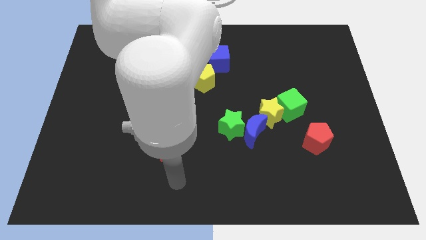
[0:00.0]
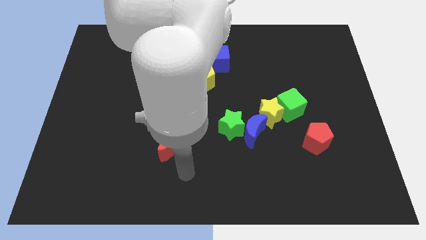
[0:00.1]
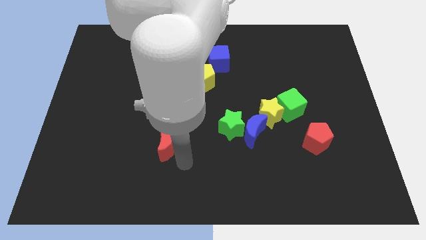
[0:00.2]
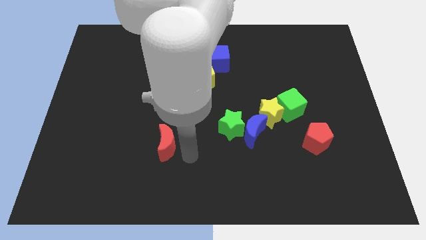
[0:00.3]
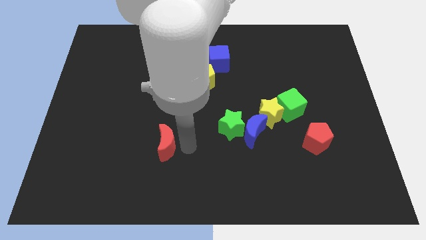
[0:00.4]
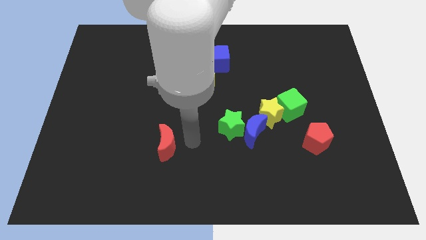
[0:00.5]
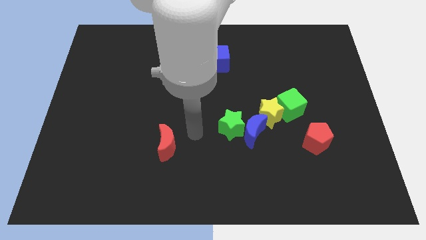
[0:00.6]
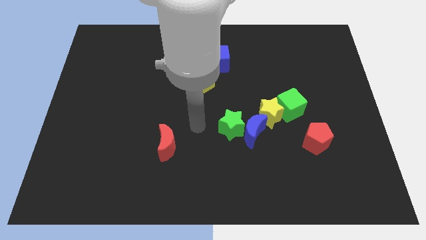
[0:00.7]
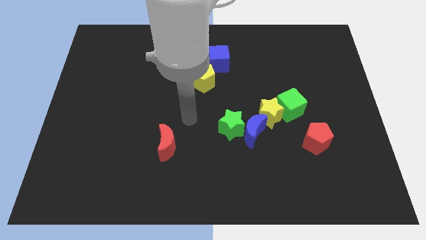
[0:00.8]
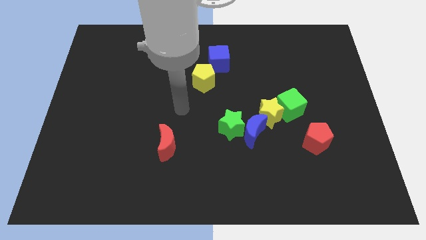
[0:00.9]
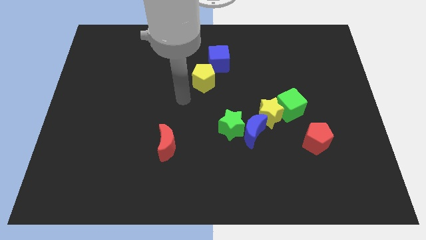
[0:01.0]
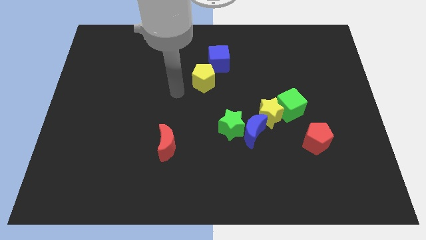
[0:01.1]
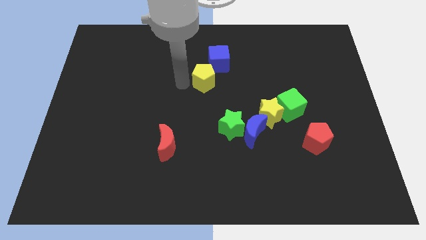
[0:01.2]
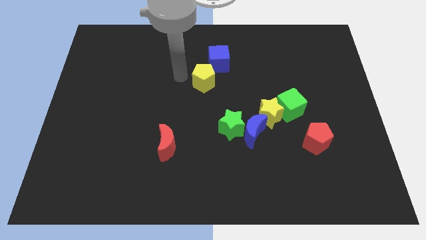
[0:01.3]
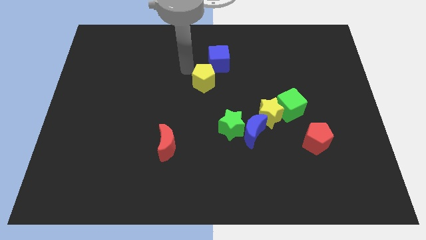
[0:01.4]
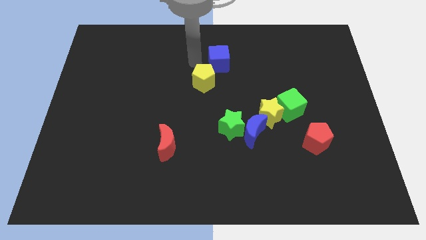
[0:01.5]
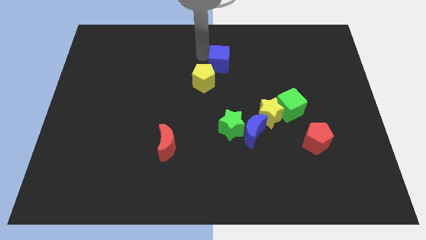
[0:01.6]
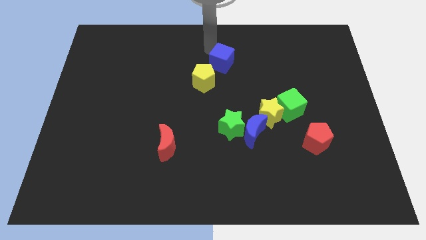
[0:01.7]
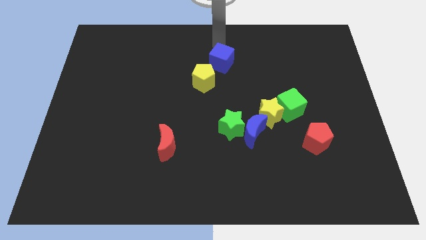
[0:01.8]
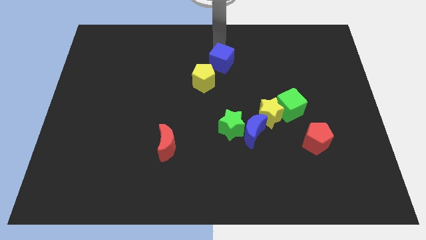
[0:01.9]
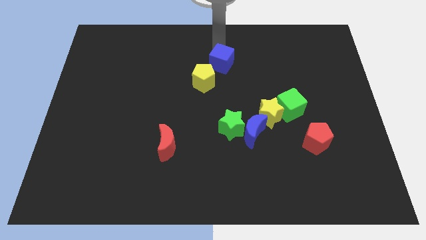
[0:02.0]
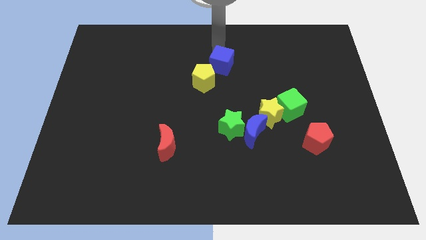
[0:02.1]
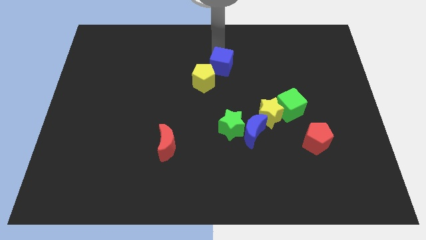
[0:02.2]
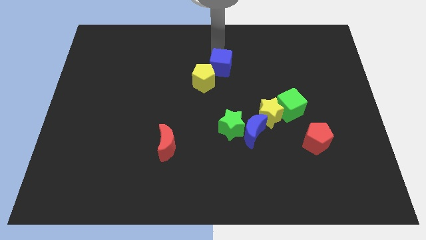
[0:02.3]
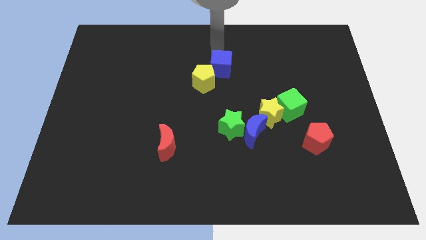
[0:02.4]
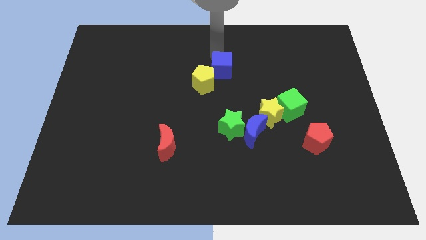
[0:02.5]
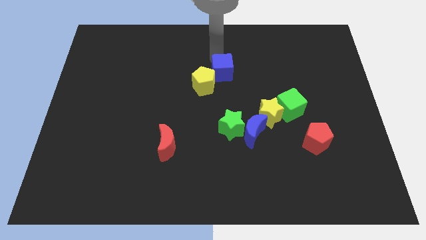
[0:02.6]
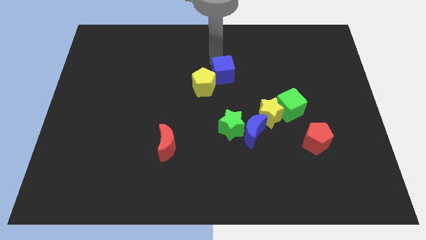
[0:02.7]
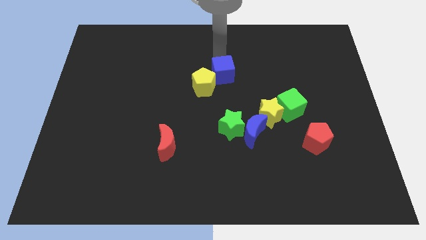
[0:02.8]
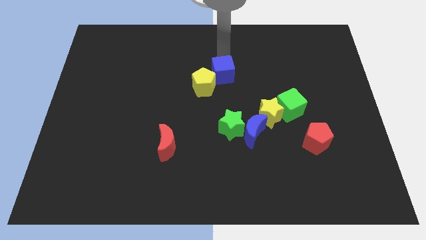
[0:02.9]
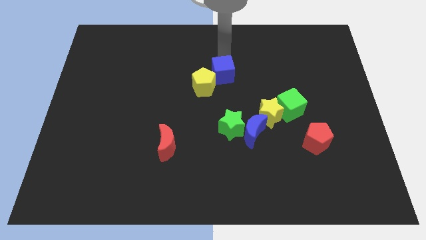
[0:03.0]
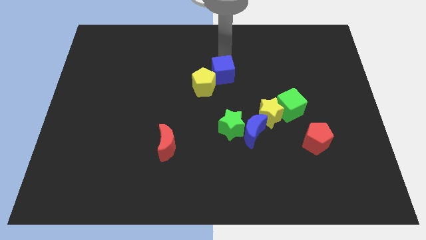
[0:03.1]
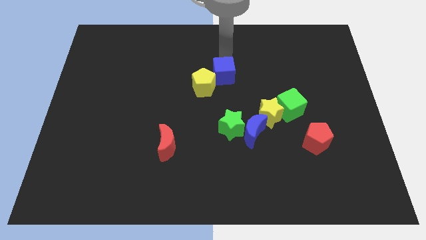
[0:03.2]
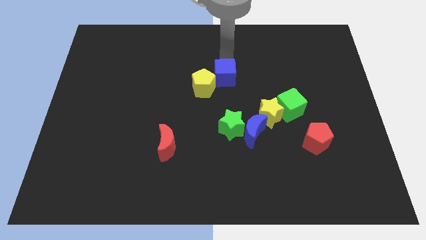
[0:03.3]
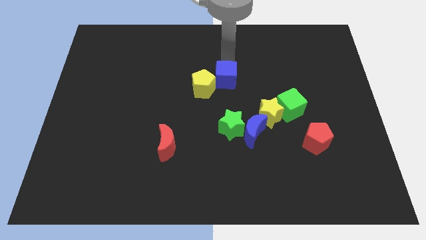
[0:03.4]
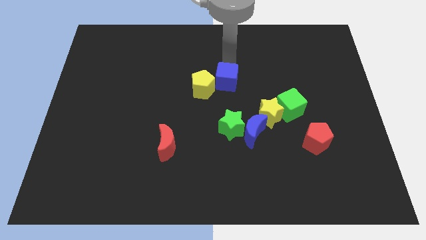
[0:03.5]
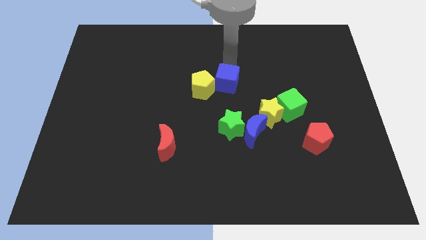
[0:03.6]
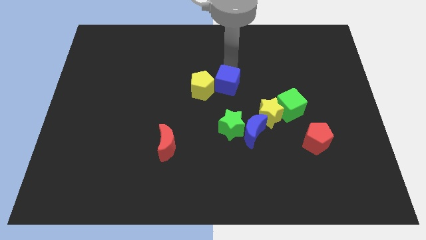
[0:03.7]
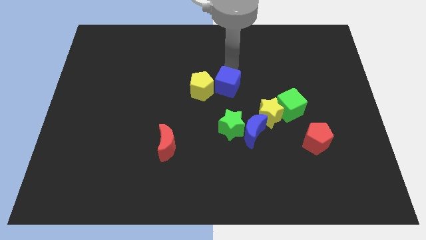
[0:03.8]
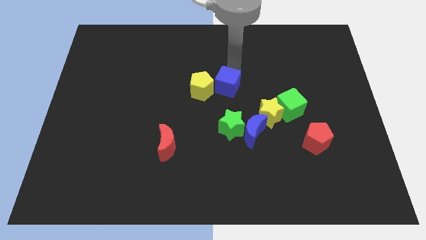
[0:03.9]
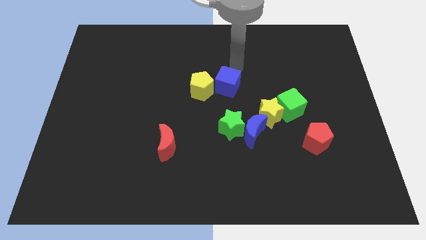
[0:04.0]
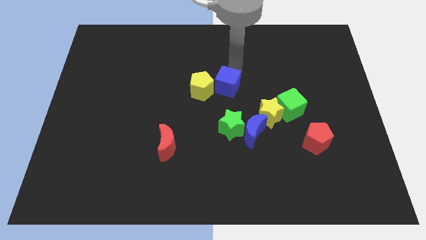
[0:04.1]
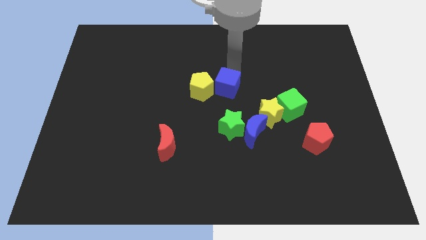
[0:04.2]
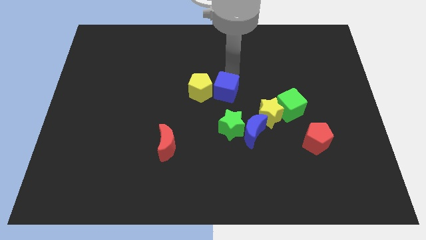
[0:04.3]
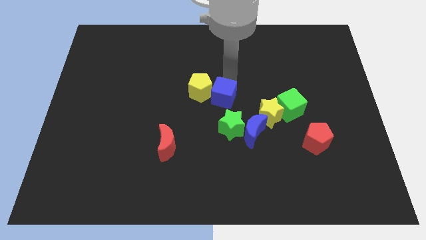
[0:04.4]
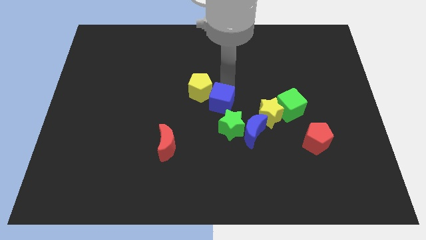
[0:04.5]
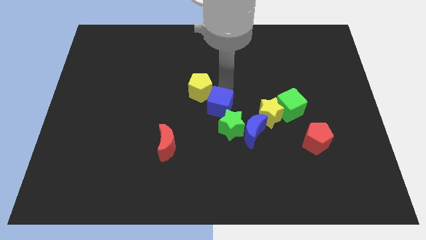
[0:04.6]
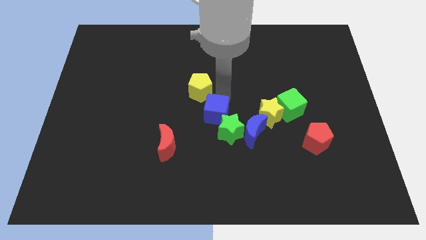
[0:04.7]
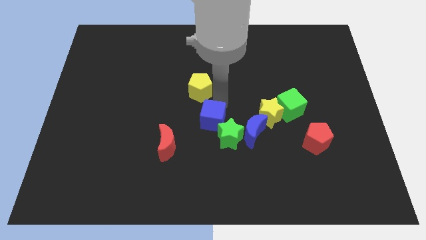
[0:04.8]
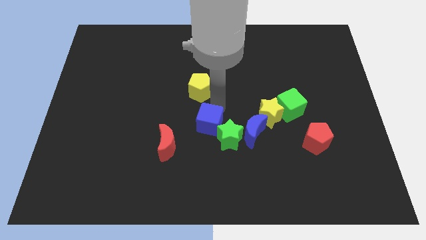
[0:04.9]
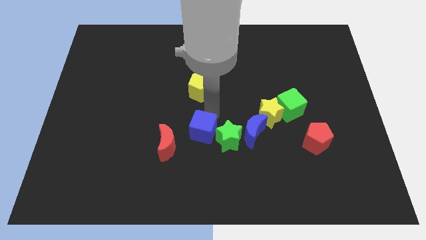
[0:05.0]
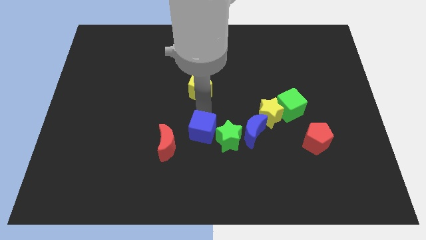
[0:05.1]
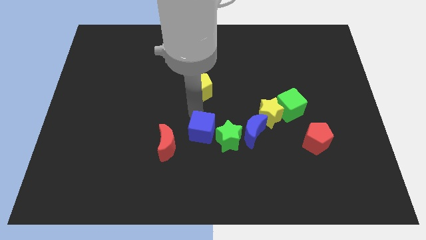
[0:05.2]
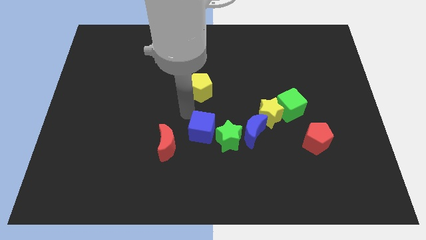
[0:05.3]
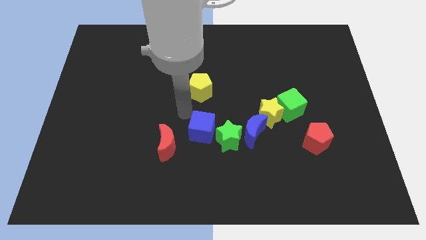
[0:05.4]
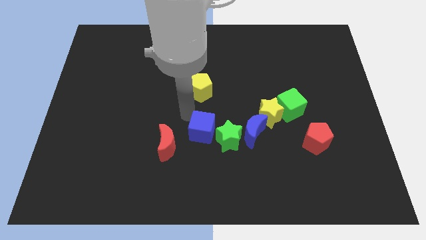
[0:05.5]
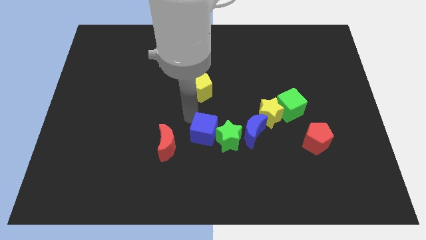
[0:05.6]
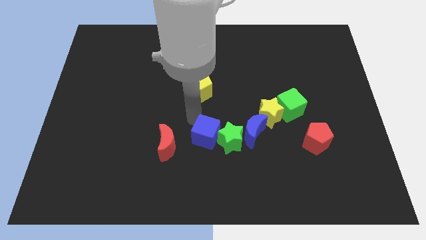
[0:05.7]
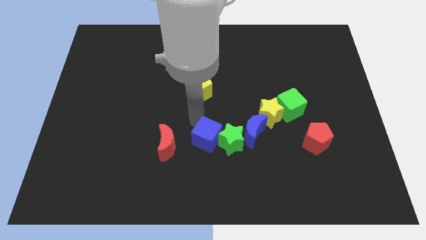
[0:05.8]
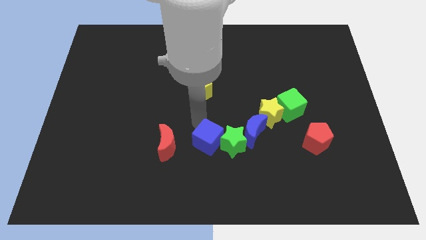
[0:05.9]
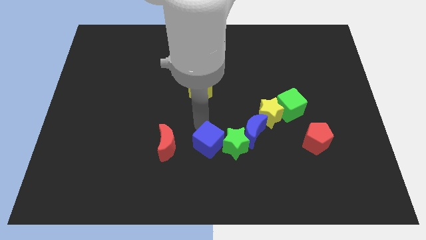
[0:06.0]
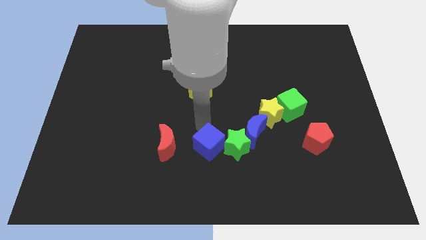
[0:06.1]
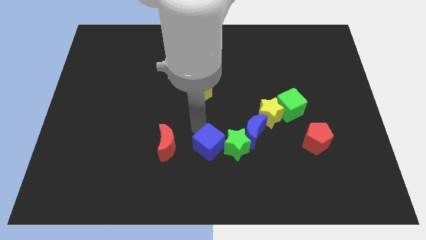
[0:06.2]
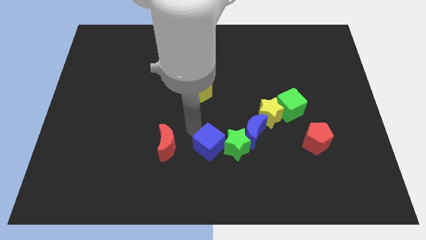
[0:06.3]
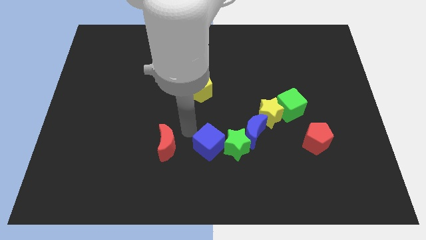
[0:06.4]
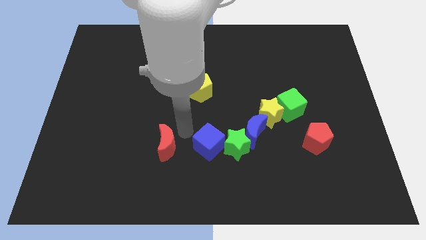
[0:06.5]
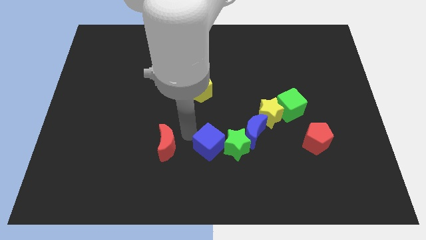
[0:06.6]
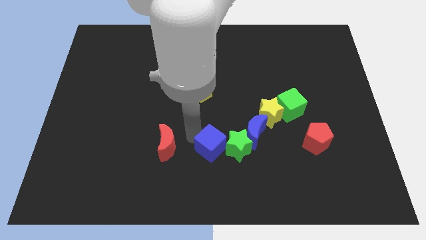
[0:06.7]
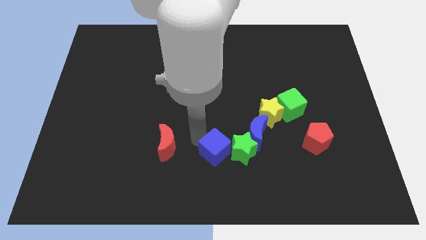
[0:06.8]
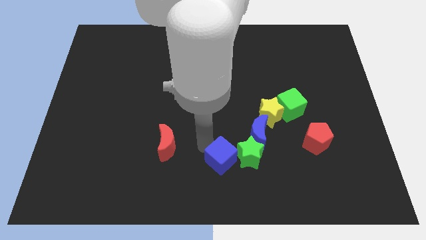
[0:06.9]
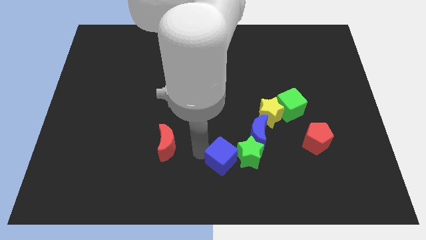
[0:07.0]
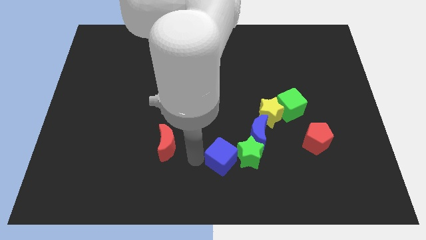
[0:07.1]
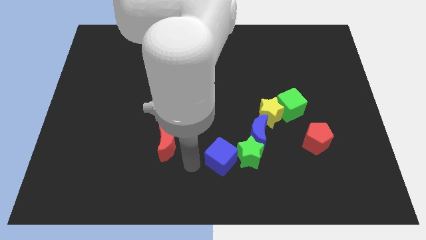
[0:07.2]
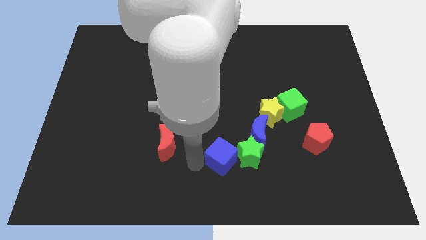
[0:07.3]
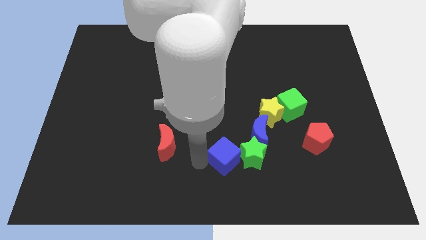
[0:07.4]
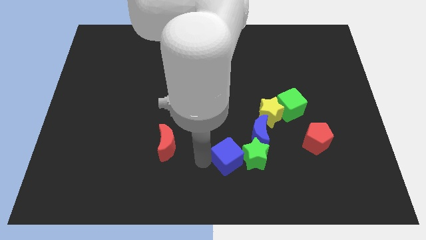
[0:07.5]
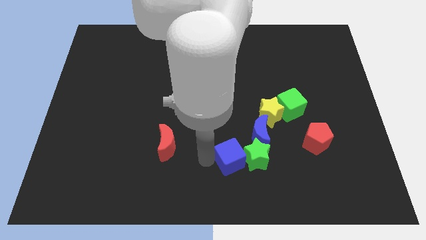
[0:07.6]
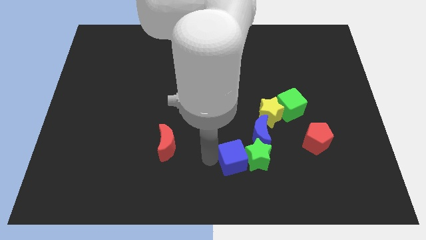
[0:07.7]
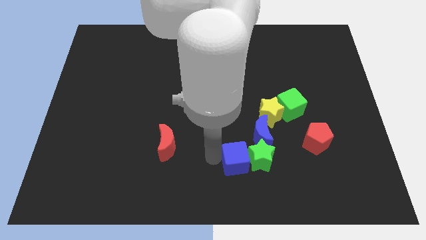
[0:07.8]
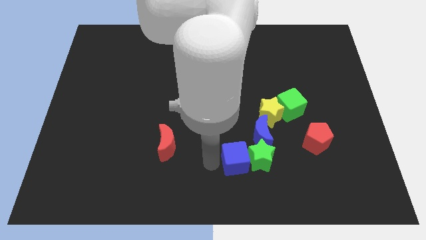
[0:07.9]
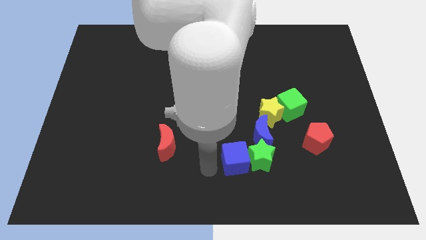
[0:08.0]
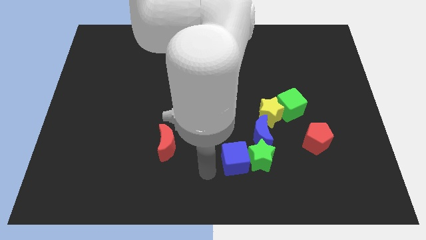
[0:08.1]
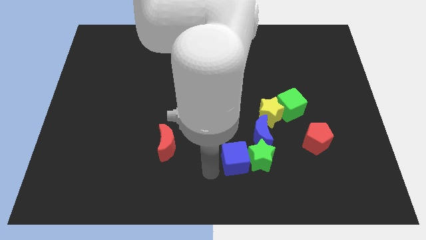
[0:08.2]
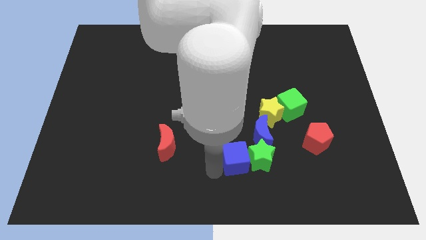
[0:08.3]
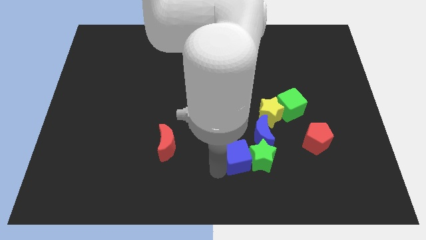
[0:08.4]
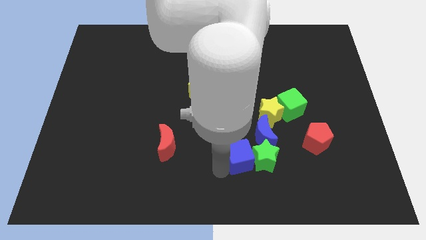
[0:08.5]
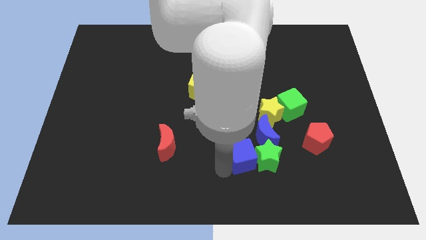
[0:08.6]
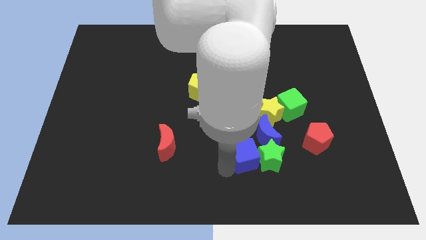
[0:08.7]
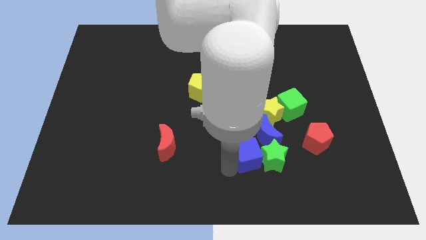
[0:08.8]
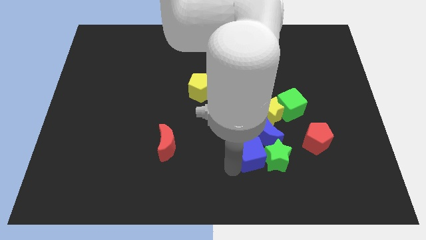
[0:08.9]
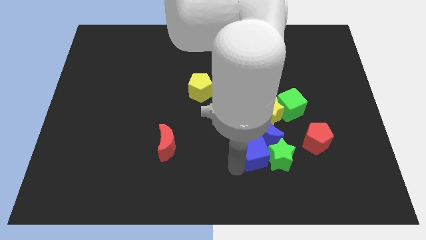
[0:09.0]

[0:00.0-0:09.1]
push the blue cube just left of the red pentagon
